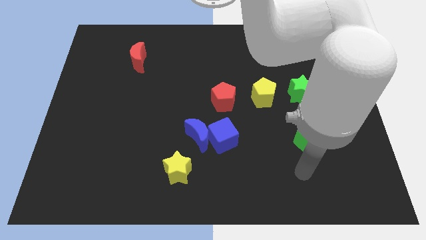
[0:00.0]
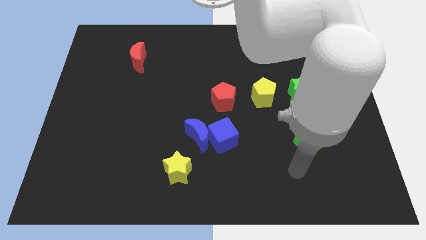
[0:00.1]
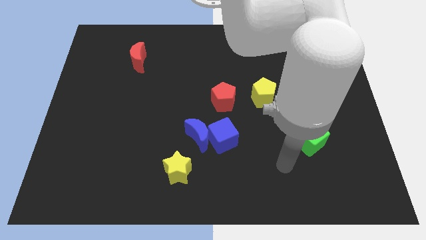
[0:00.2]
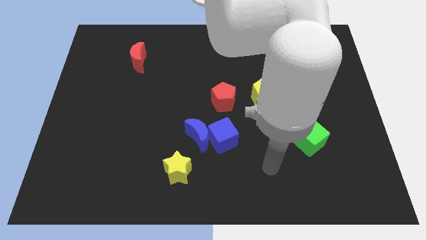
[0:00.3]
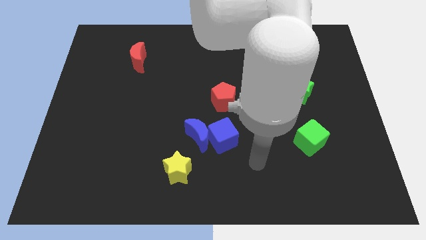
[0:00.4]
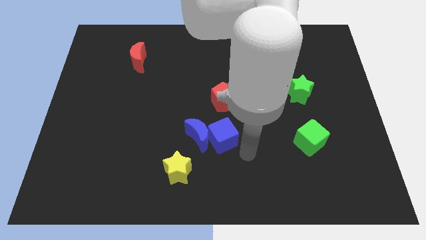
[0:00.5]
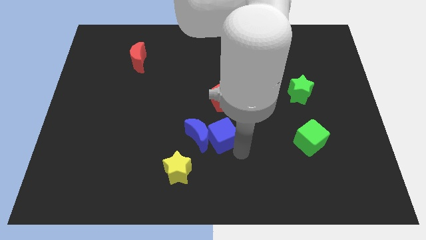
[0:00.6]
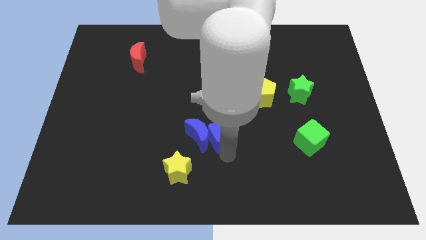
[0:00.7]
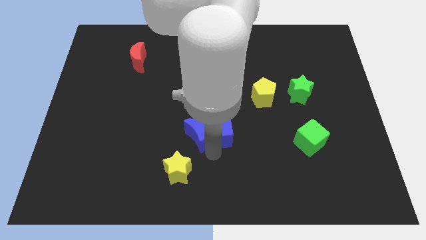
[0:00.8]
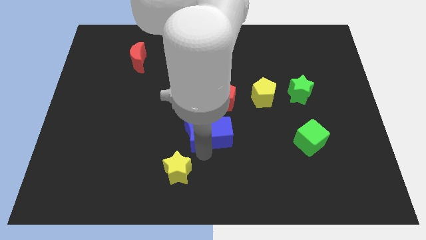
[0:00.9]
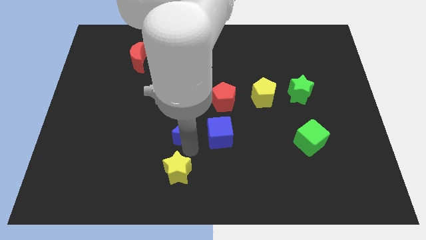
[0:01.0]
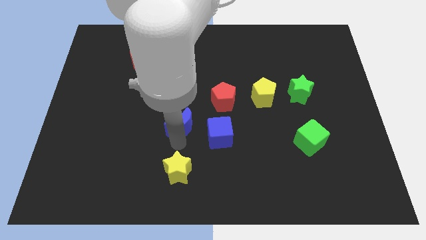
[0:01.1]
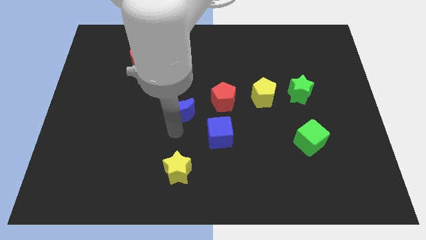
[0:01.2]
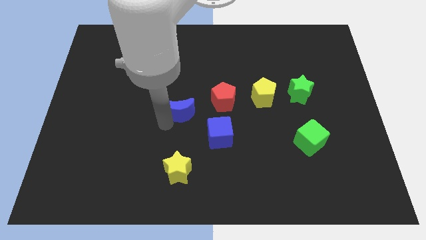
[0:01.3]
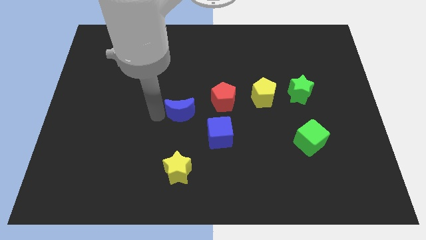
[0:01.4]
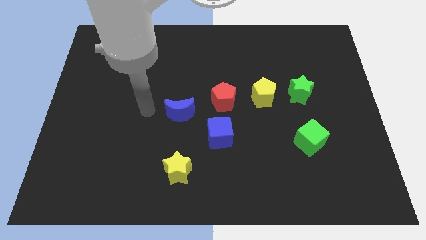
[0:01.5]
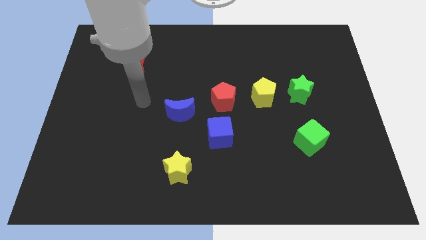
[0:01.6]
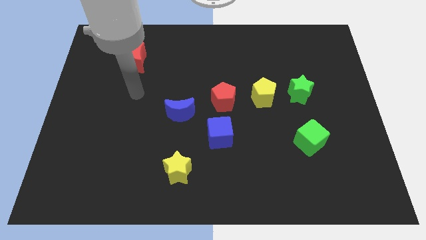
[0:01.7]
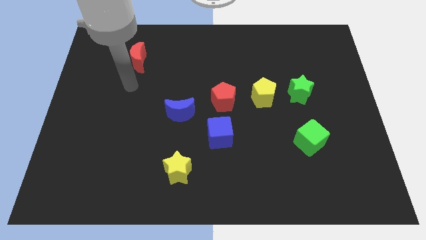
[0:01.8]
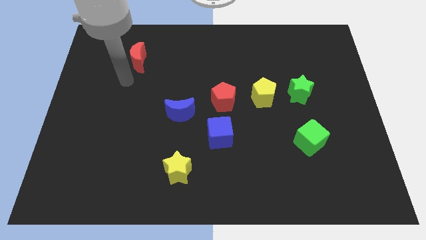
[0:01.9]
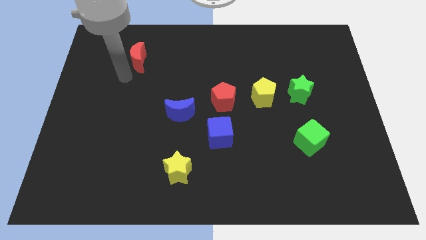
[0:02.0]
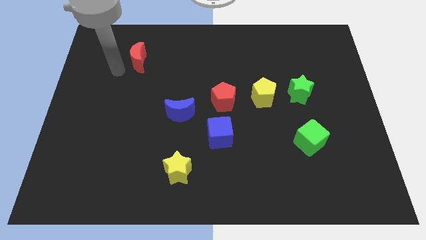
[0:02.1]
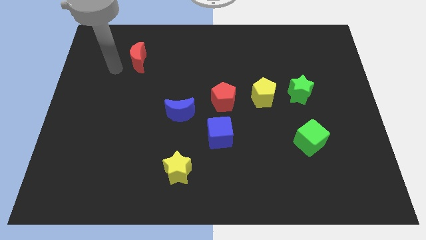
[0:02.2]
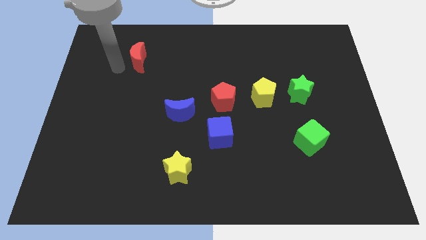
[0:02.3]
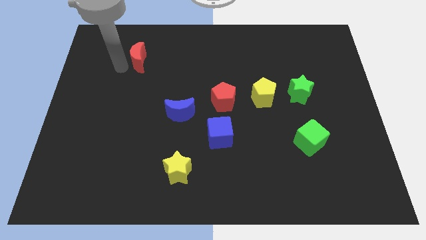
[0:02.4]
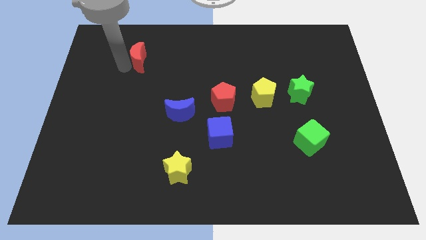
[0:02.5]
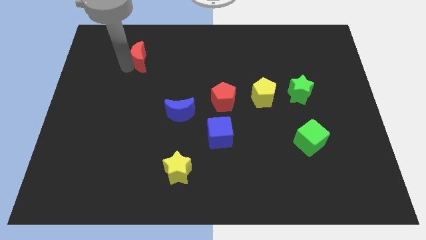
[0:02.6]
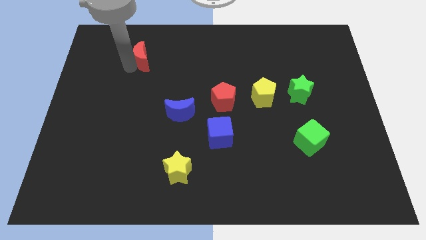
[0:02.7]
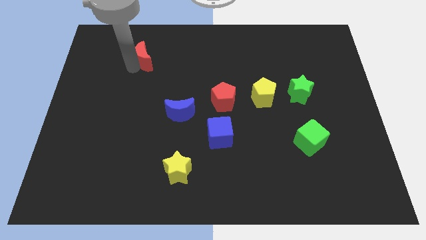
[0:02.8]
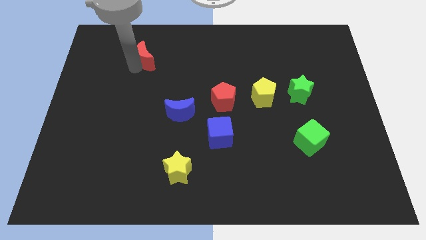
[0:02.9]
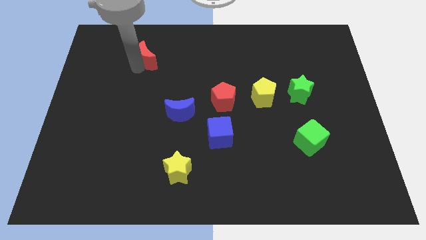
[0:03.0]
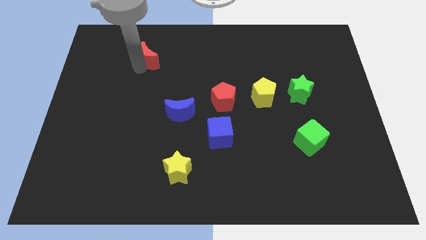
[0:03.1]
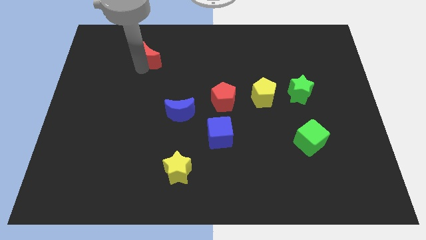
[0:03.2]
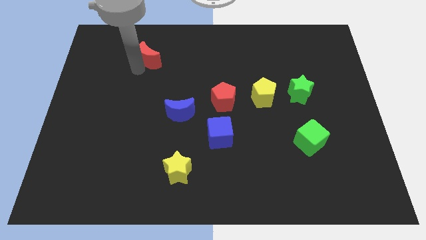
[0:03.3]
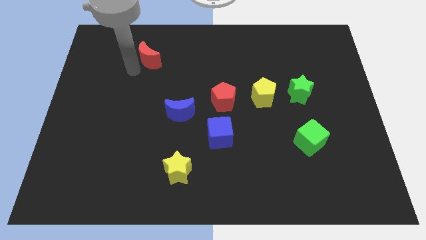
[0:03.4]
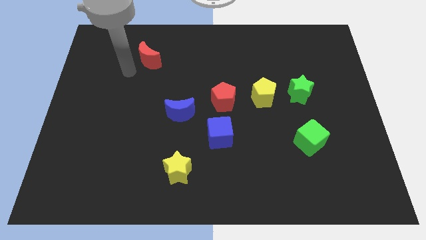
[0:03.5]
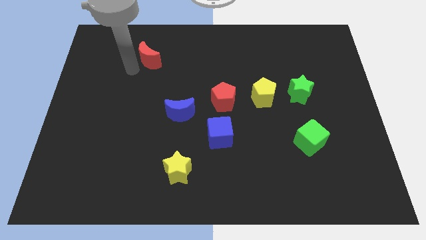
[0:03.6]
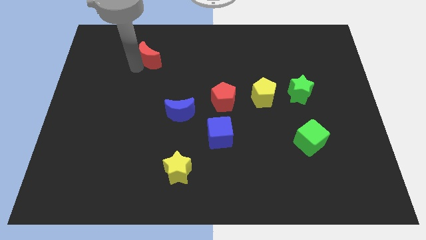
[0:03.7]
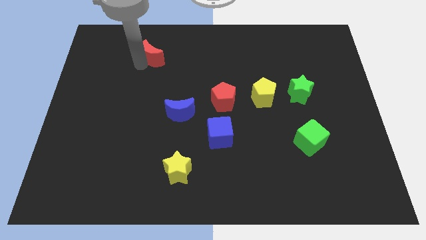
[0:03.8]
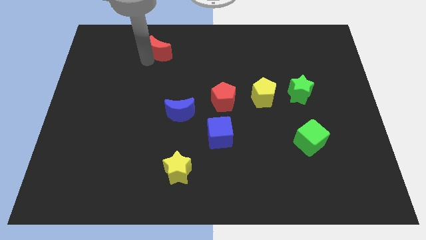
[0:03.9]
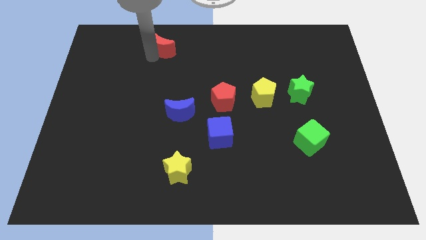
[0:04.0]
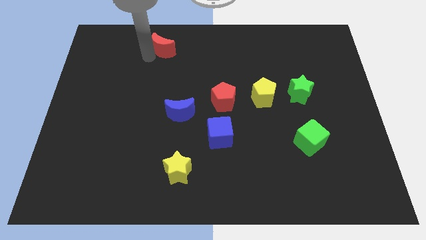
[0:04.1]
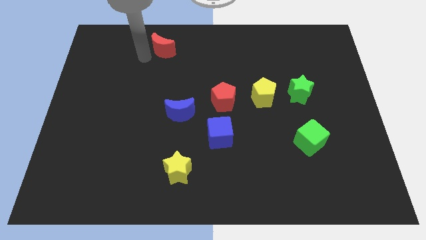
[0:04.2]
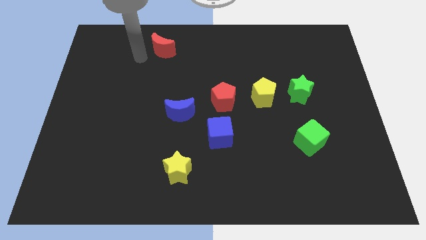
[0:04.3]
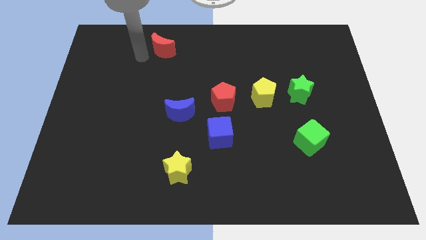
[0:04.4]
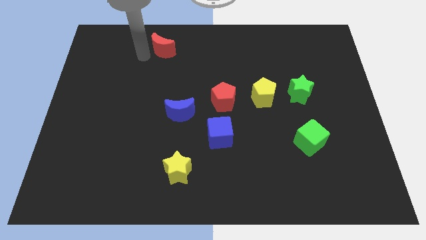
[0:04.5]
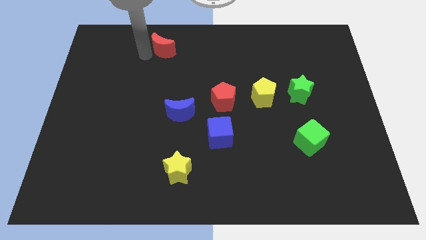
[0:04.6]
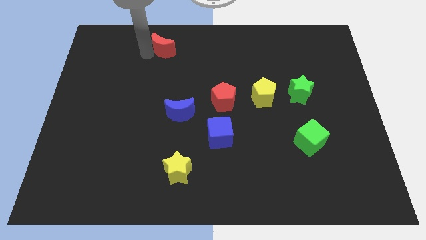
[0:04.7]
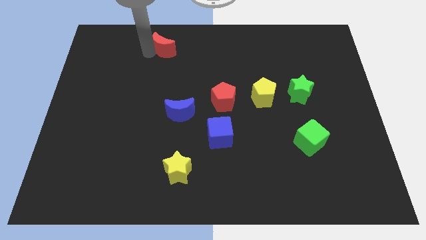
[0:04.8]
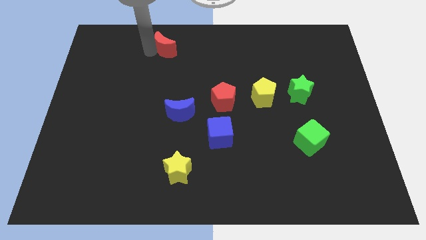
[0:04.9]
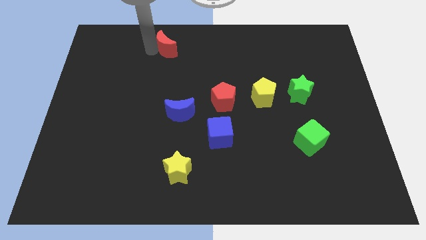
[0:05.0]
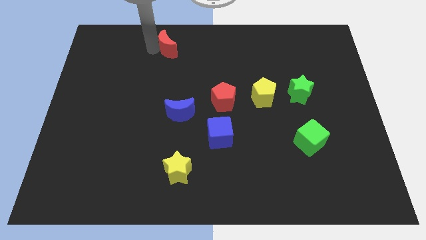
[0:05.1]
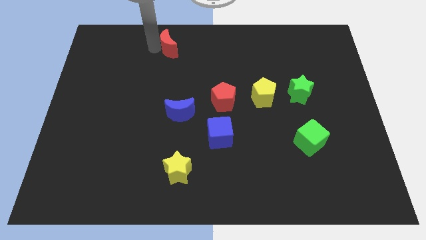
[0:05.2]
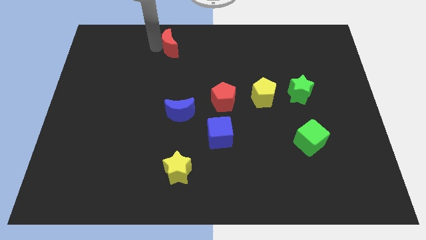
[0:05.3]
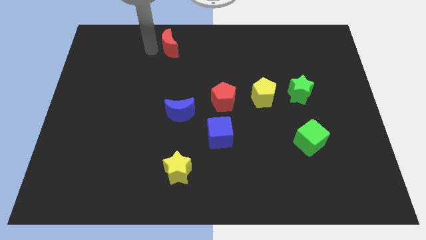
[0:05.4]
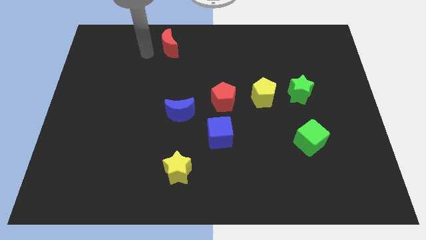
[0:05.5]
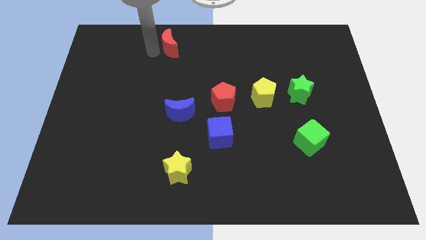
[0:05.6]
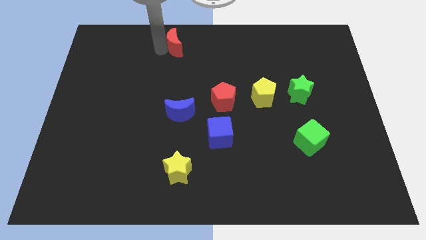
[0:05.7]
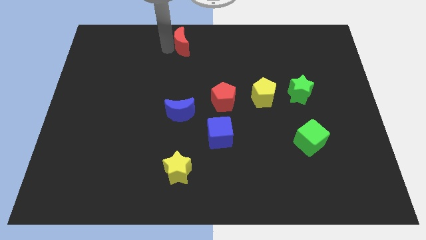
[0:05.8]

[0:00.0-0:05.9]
push the red moon to the top side

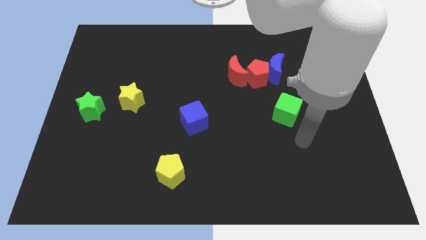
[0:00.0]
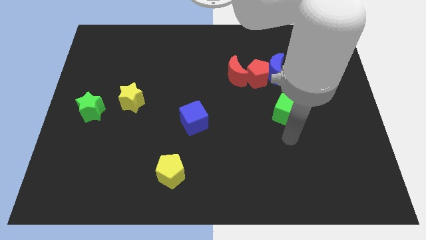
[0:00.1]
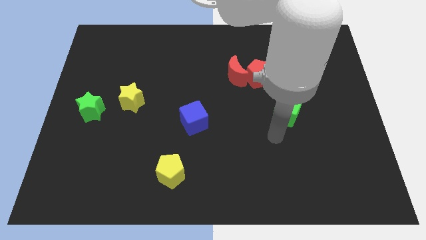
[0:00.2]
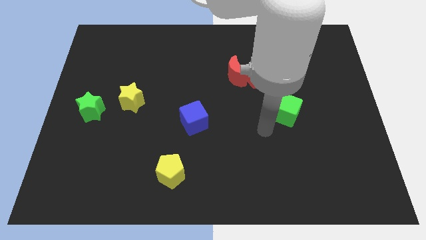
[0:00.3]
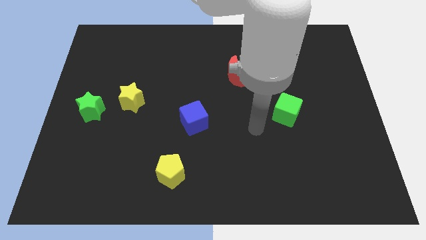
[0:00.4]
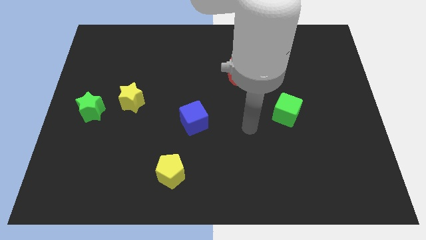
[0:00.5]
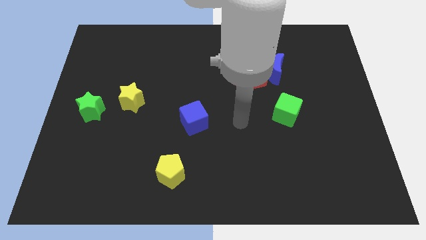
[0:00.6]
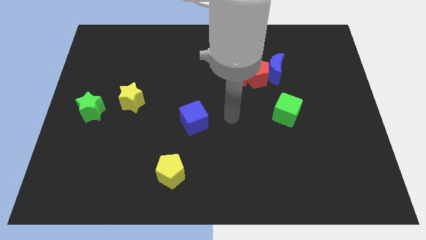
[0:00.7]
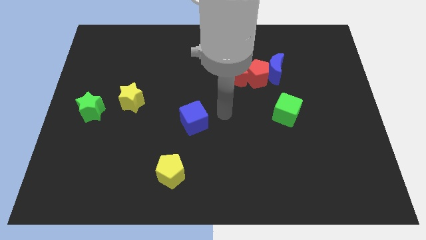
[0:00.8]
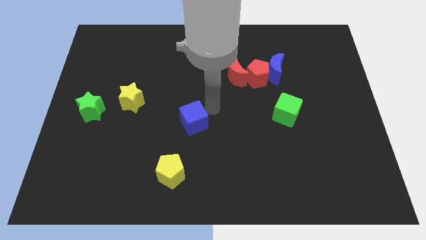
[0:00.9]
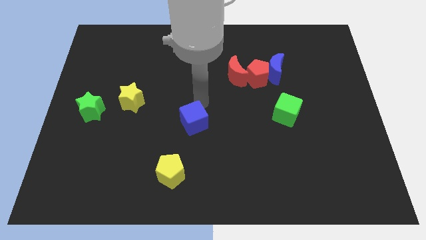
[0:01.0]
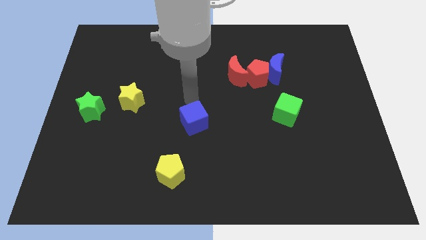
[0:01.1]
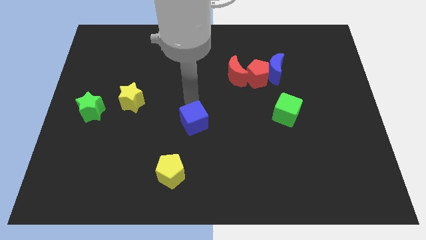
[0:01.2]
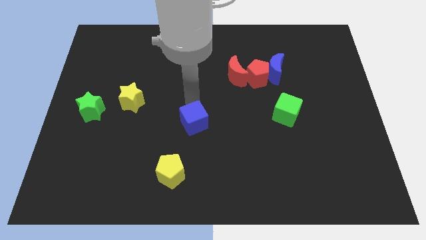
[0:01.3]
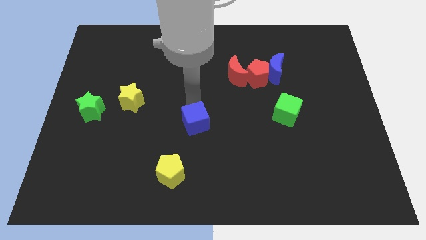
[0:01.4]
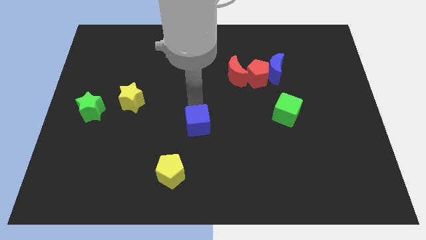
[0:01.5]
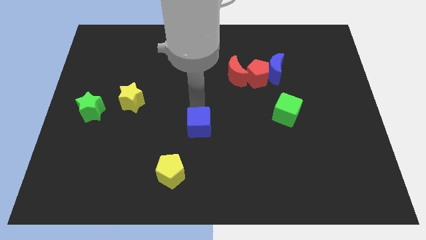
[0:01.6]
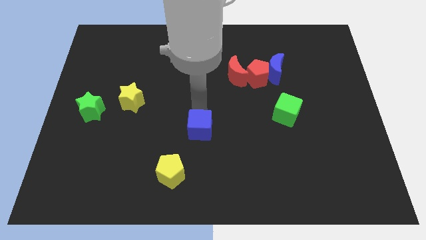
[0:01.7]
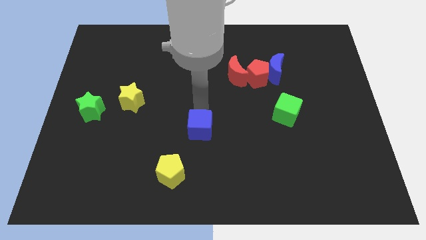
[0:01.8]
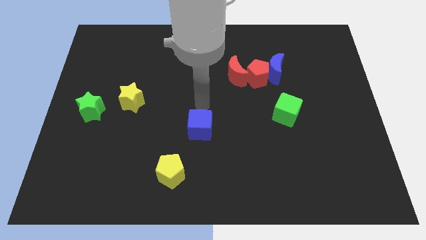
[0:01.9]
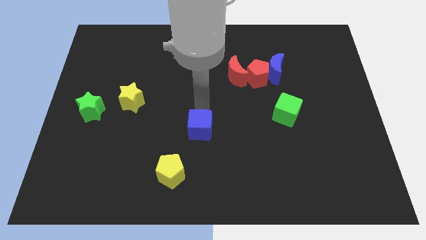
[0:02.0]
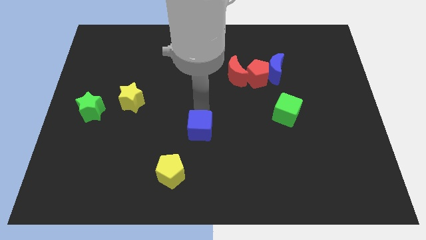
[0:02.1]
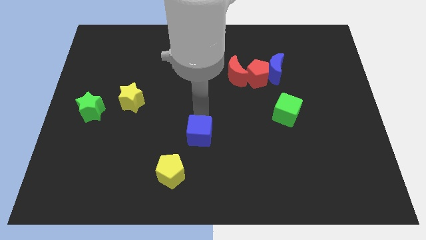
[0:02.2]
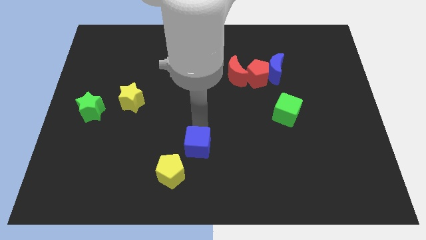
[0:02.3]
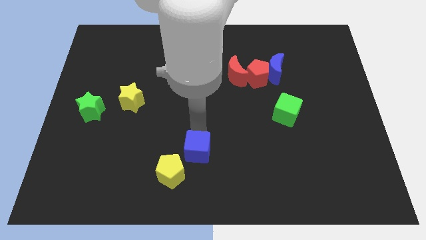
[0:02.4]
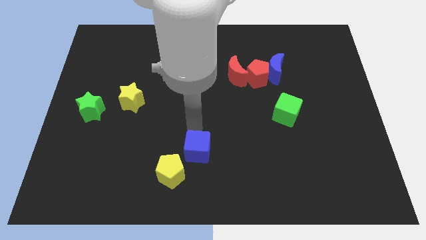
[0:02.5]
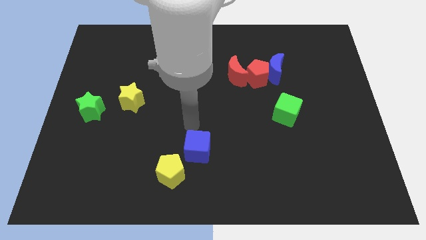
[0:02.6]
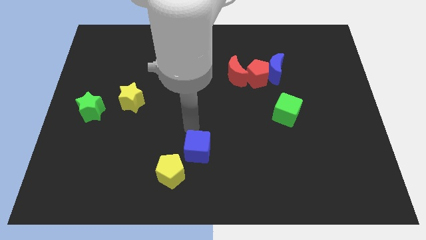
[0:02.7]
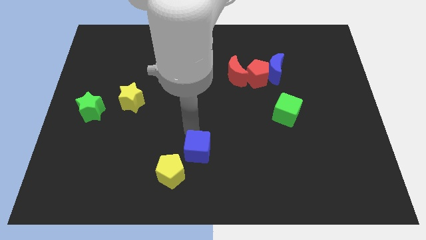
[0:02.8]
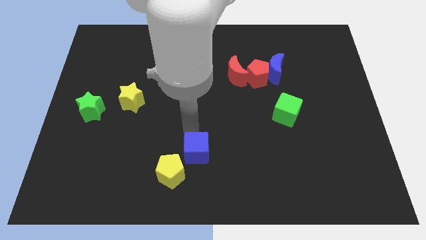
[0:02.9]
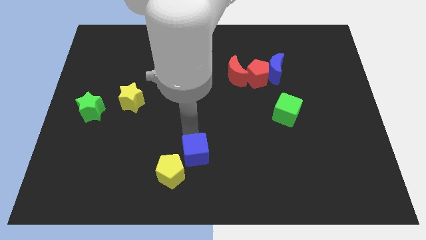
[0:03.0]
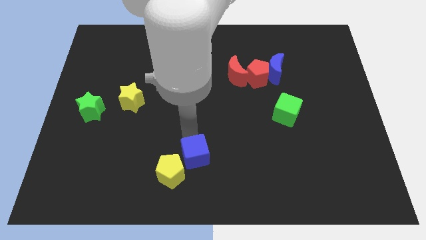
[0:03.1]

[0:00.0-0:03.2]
push the blue cube to the bottom
